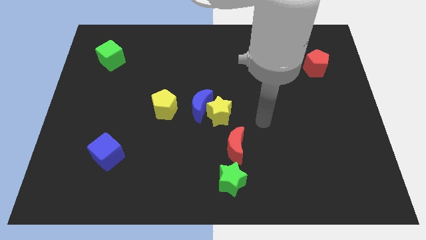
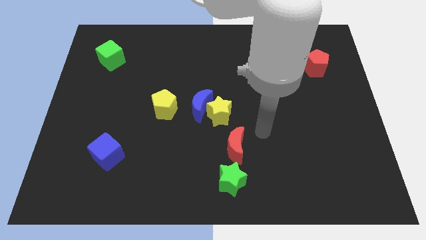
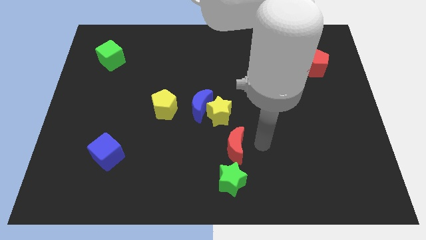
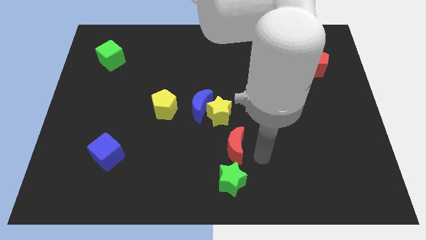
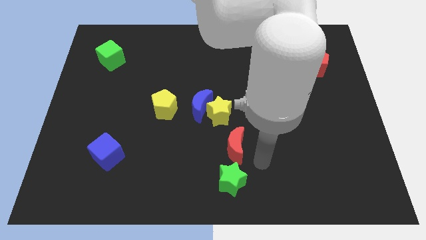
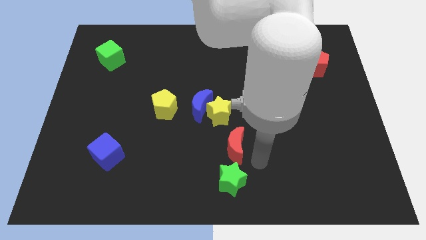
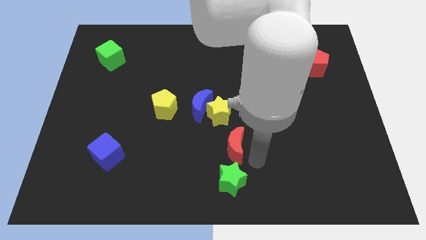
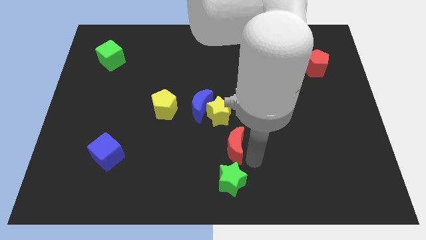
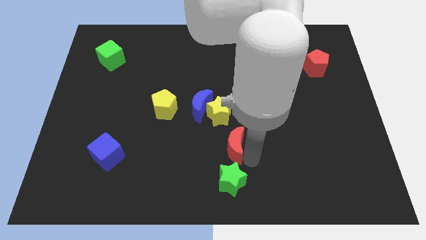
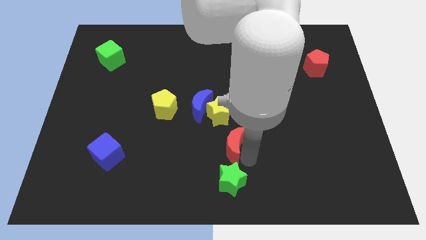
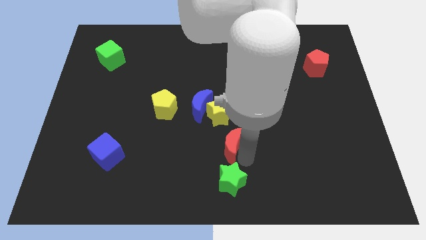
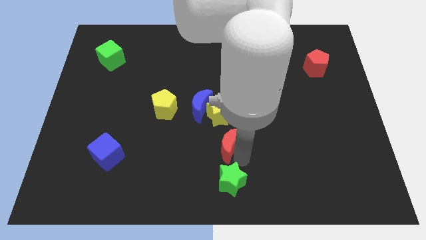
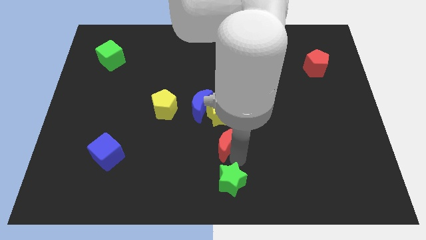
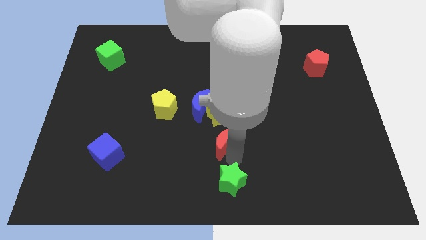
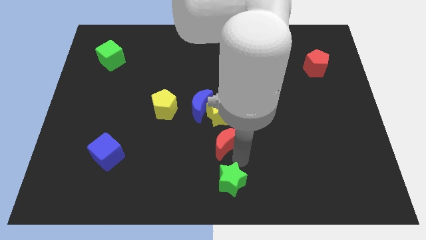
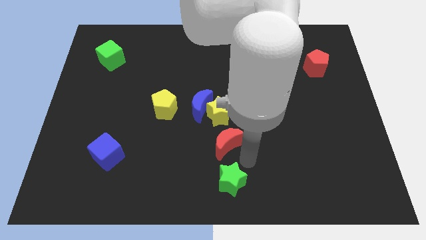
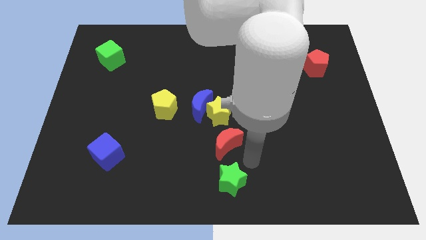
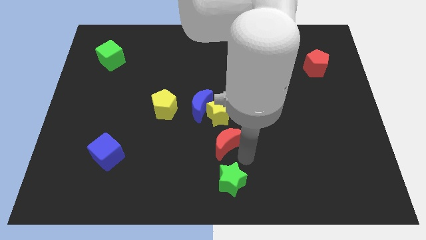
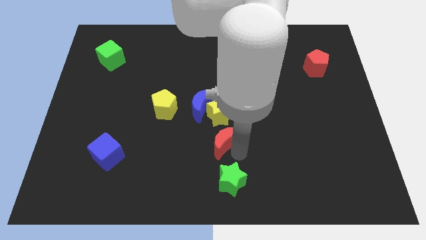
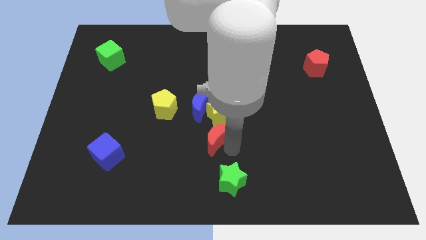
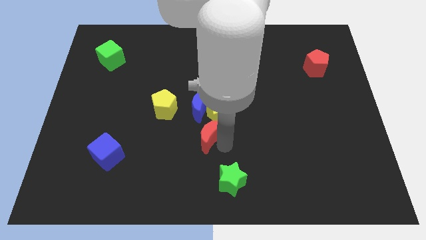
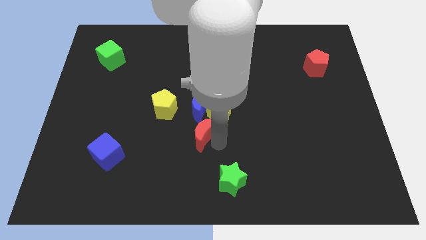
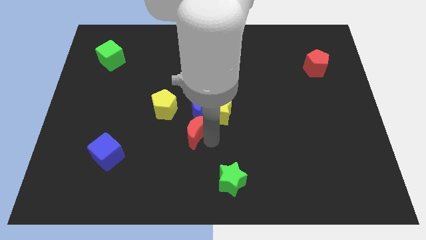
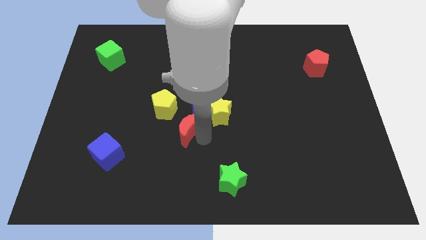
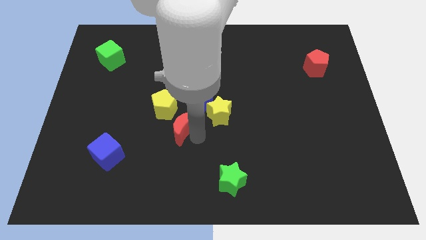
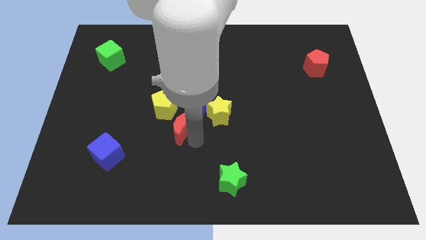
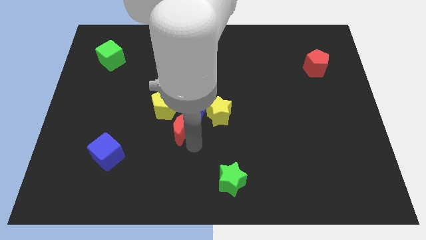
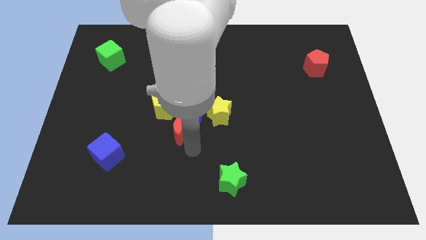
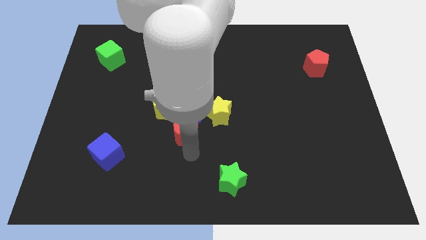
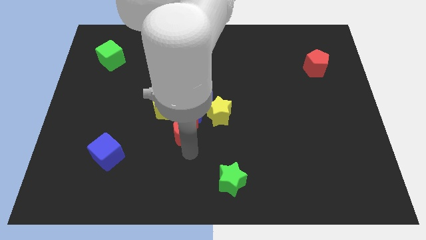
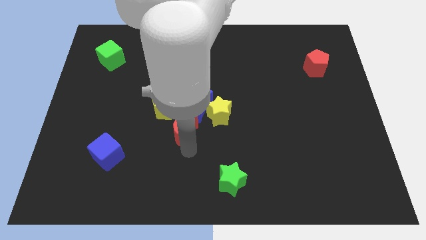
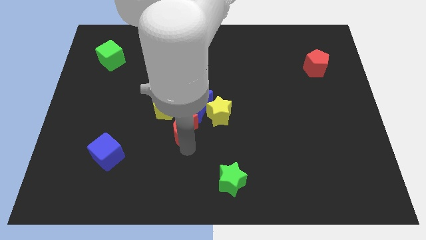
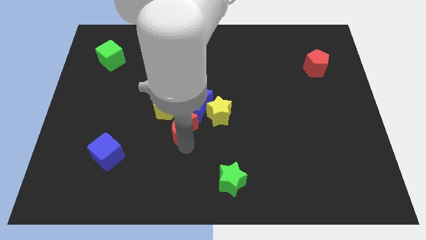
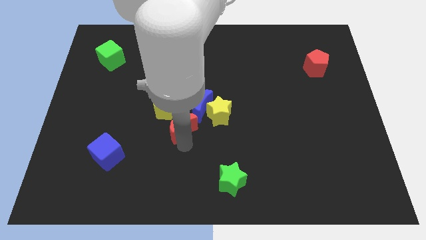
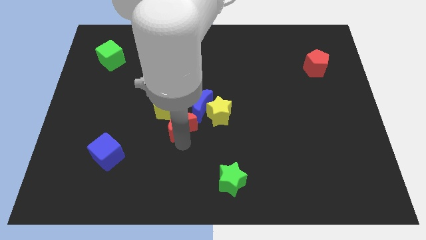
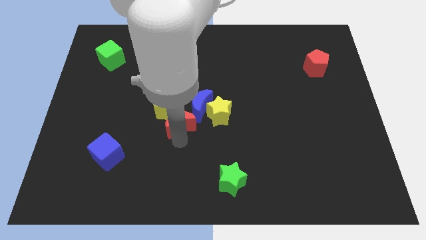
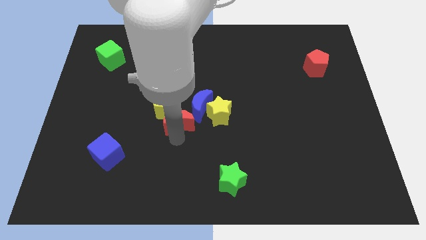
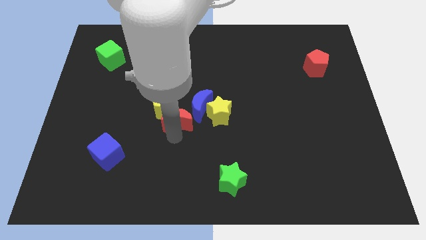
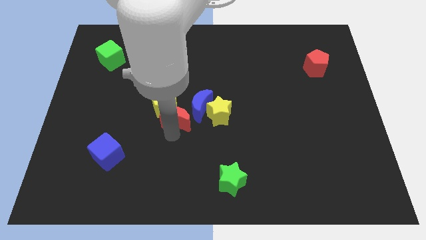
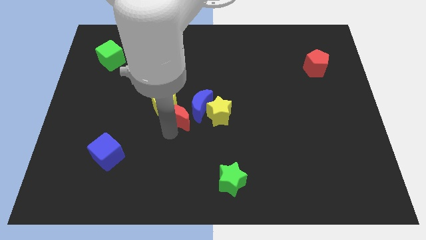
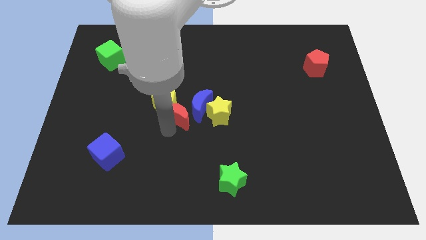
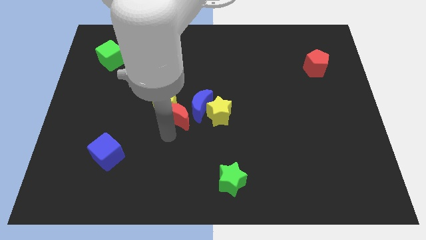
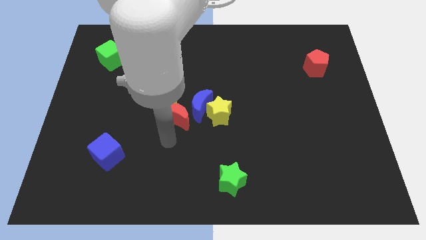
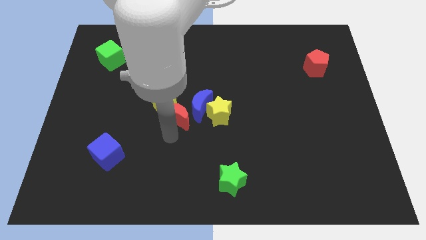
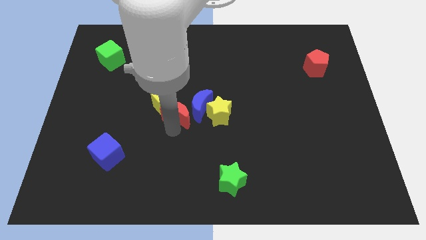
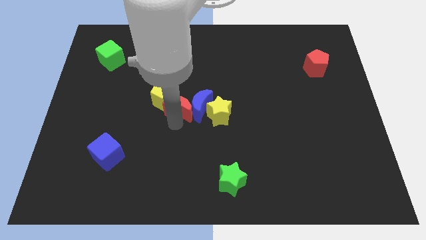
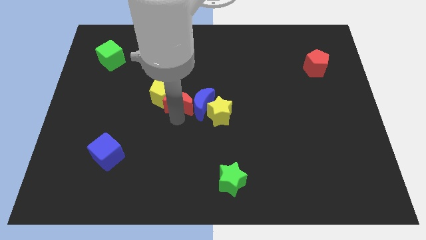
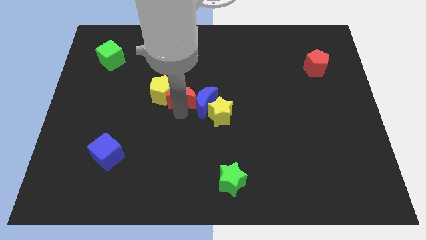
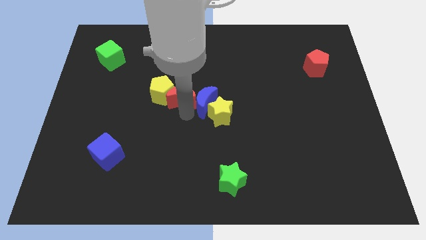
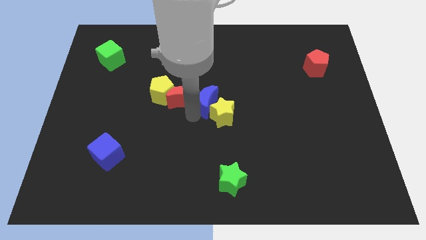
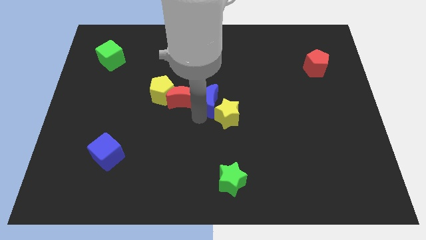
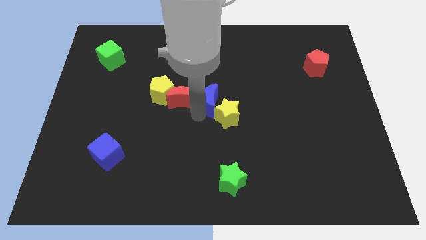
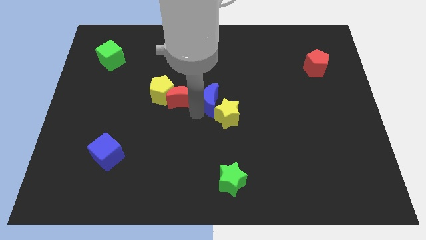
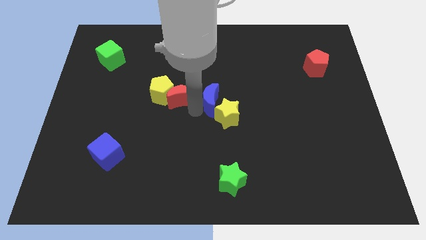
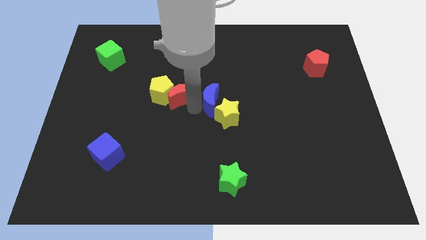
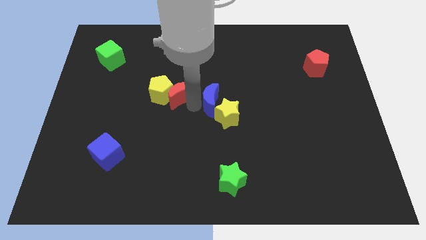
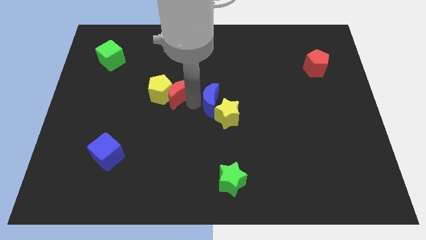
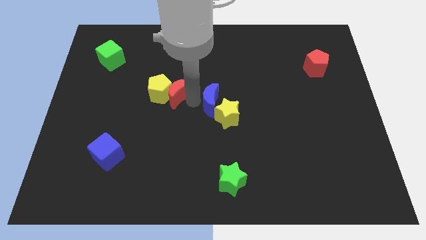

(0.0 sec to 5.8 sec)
push the red moon up and left

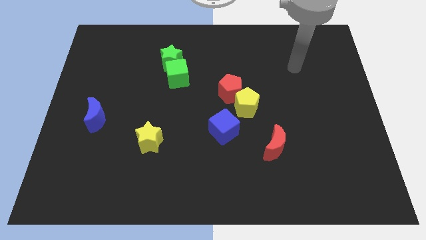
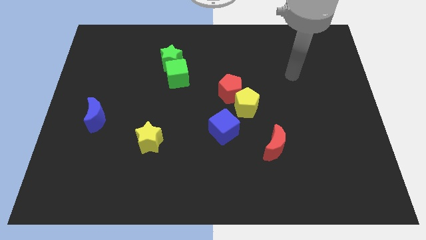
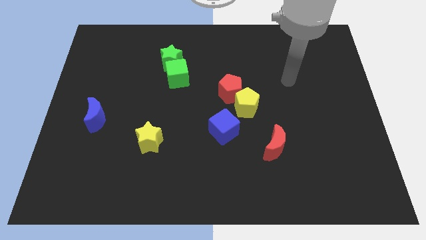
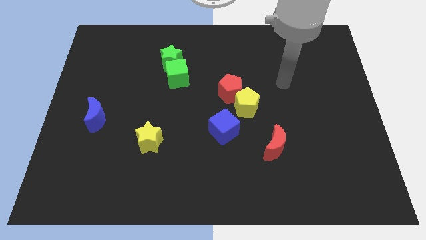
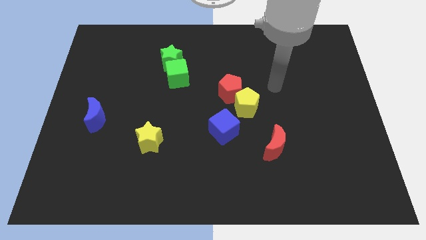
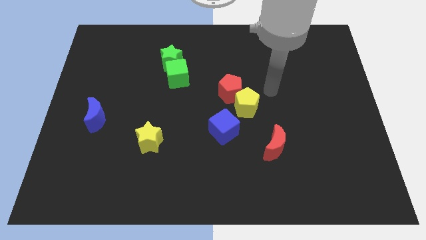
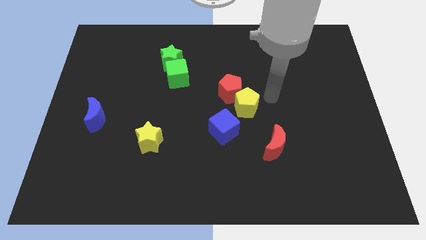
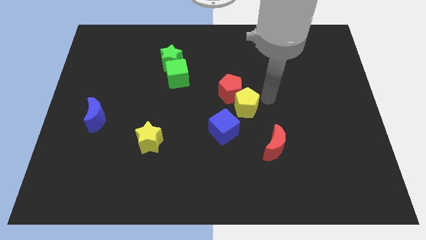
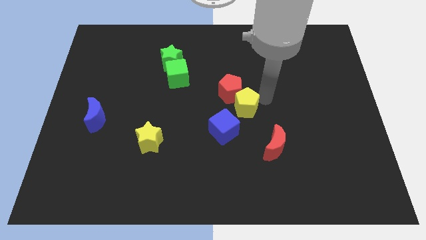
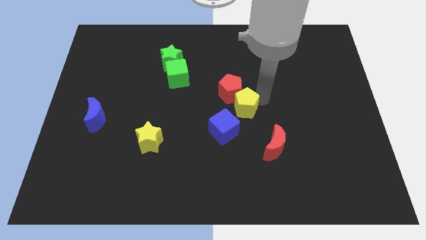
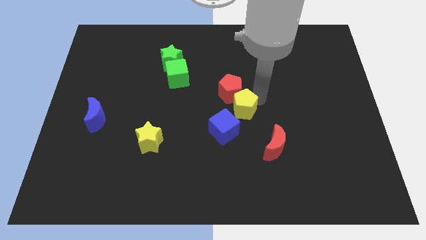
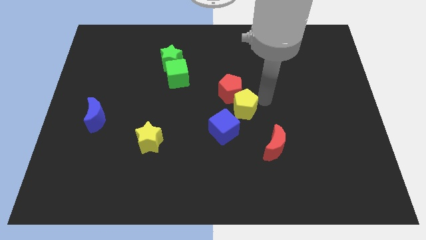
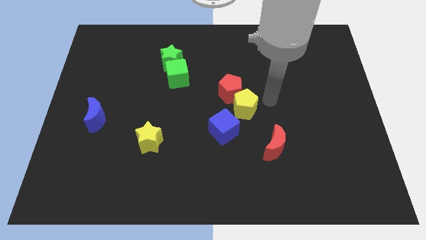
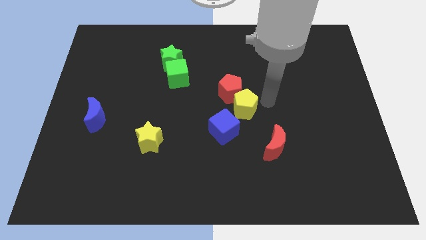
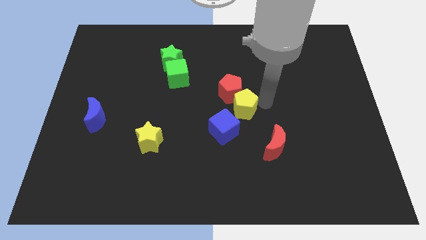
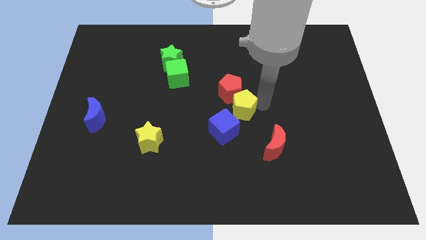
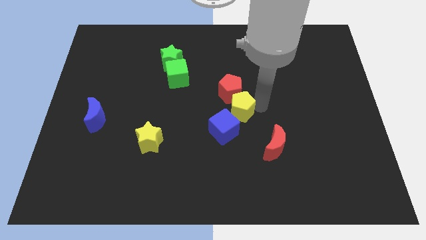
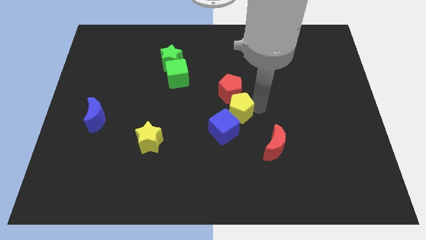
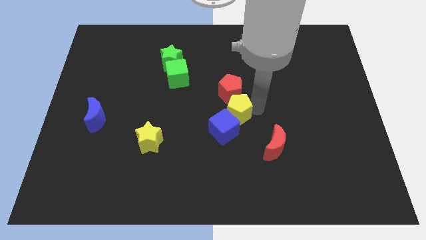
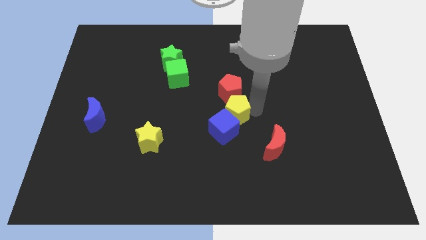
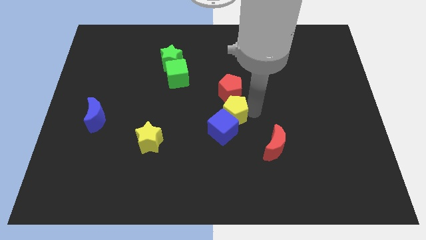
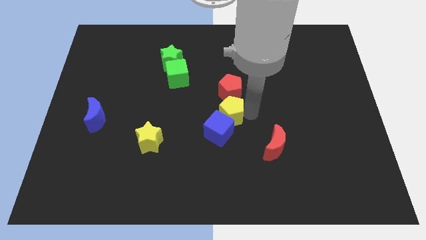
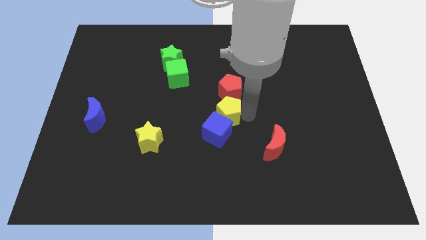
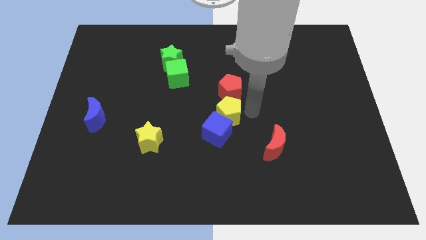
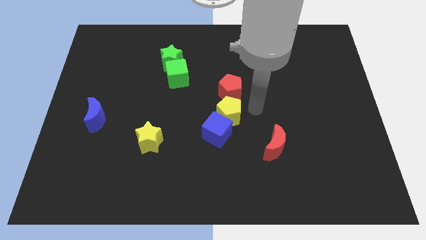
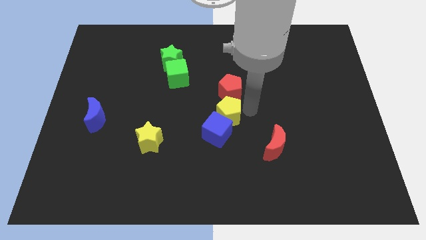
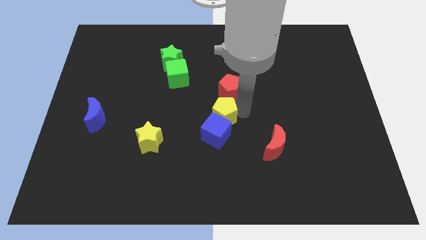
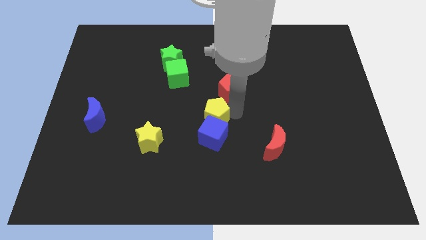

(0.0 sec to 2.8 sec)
move the yellow pentagon downwards and left diagonally somewhat
